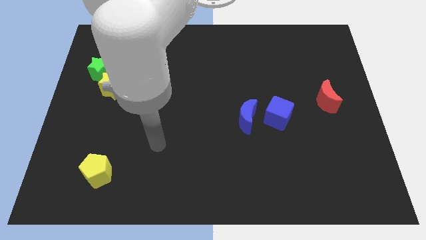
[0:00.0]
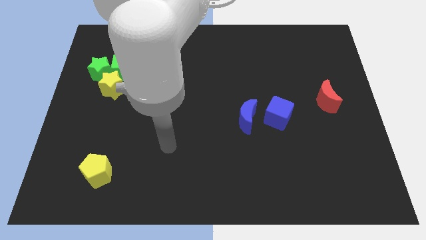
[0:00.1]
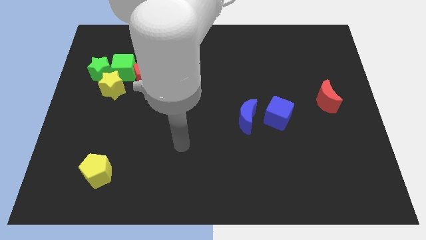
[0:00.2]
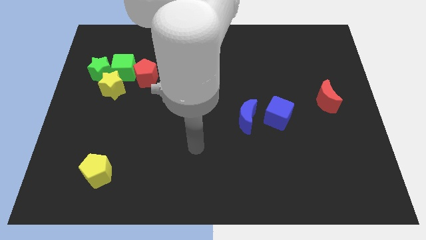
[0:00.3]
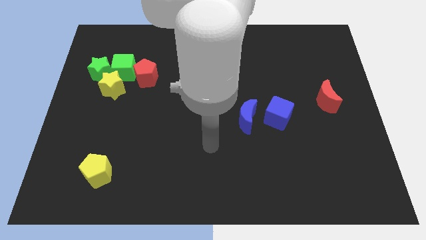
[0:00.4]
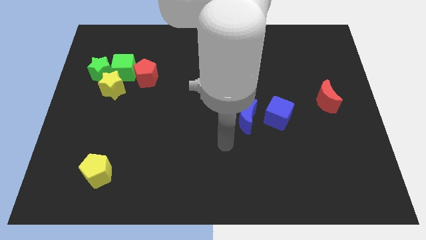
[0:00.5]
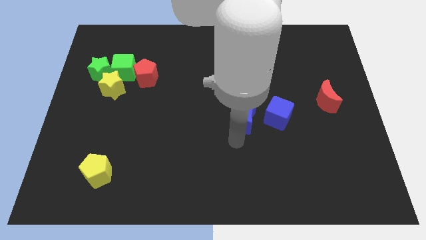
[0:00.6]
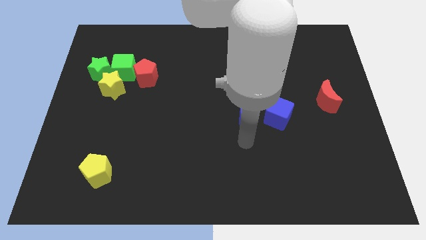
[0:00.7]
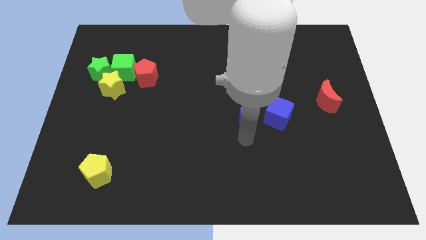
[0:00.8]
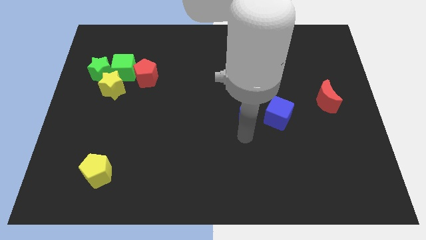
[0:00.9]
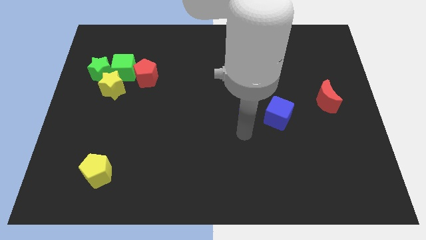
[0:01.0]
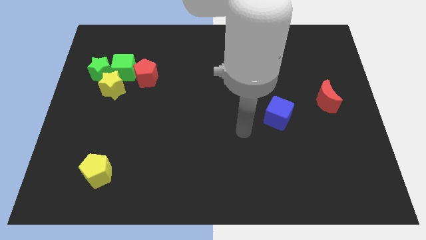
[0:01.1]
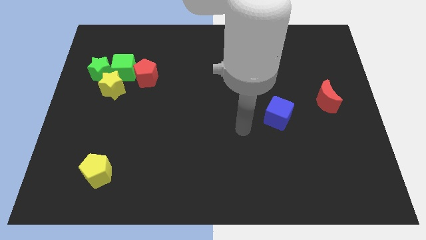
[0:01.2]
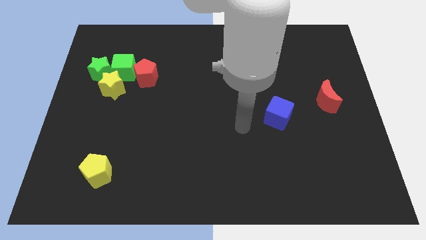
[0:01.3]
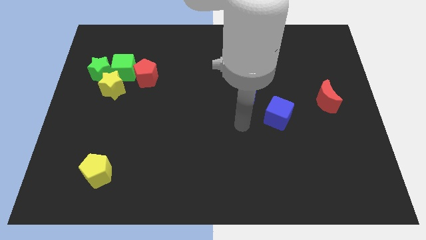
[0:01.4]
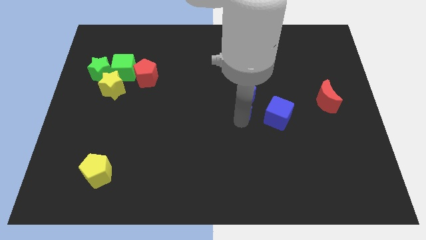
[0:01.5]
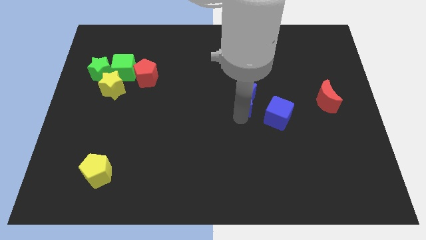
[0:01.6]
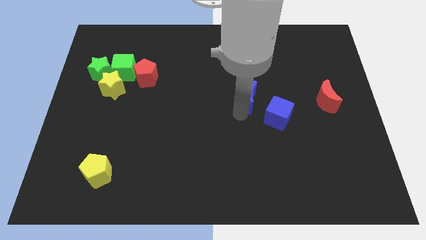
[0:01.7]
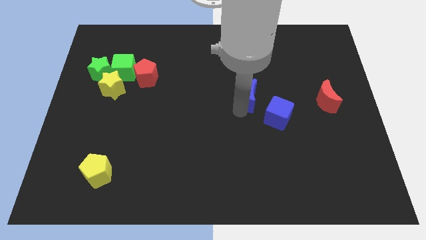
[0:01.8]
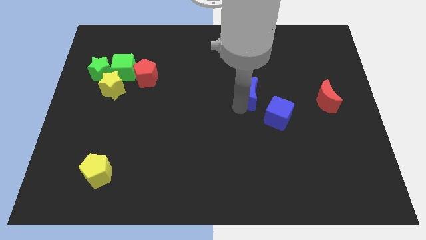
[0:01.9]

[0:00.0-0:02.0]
slightly push the blue moon upwards

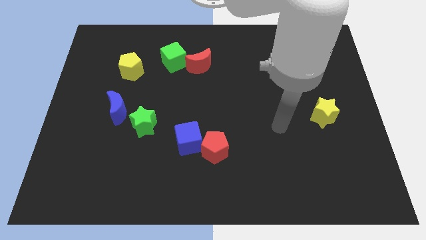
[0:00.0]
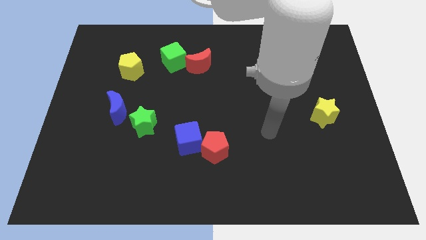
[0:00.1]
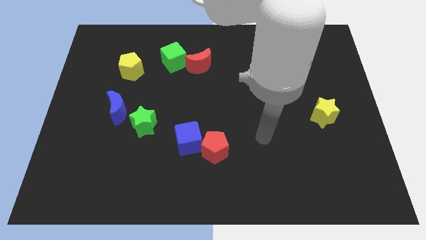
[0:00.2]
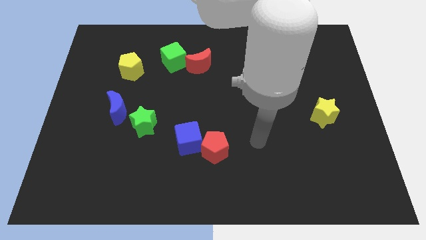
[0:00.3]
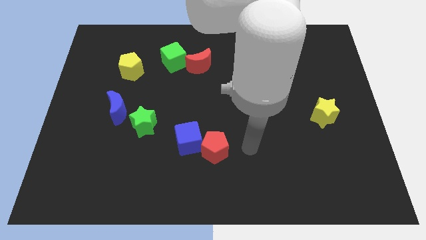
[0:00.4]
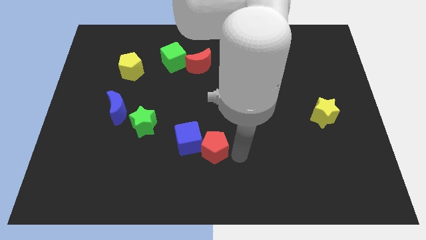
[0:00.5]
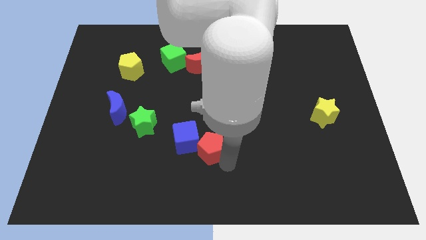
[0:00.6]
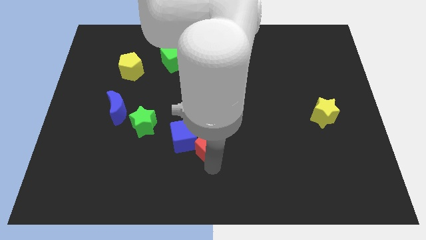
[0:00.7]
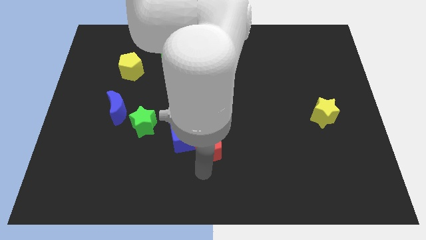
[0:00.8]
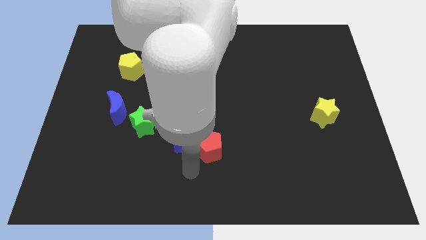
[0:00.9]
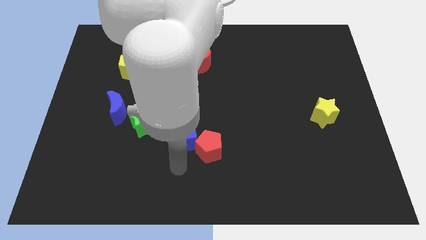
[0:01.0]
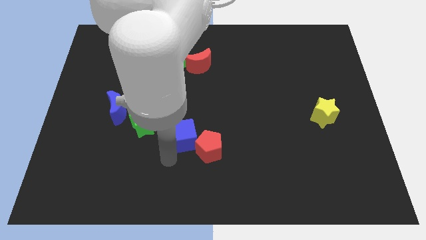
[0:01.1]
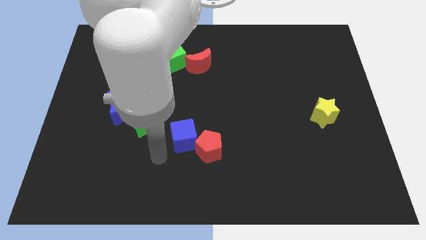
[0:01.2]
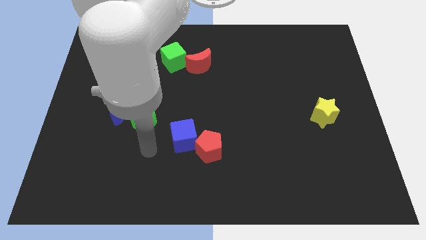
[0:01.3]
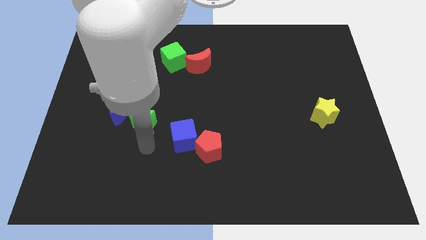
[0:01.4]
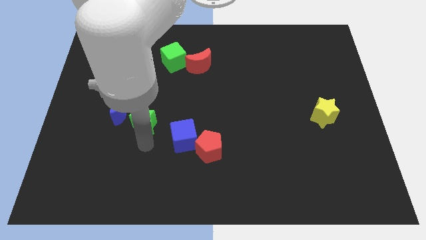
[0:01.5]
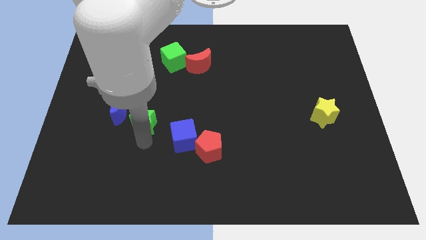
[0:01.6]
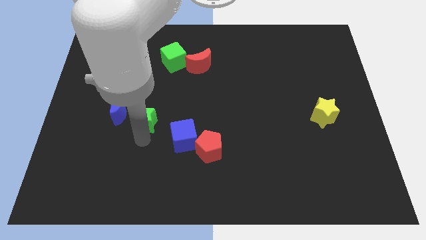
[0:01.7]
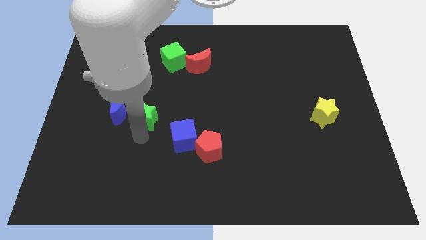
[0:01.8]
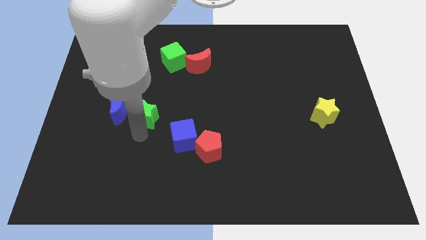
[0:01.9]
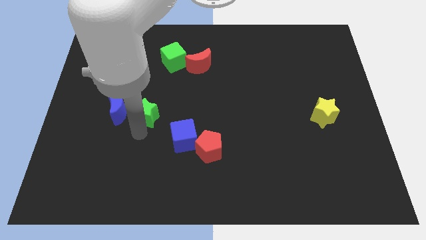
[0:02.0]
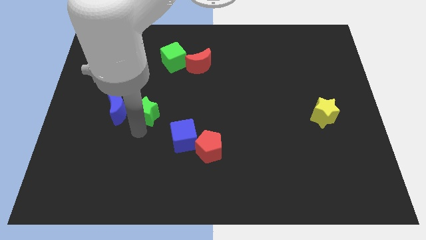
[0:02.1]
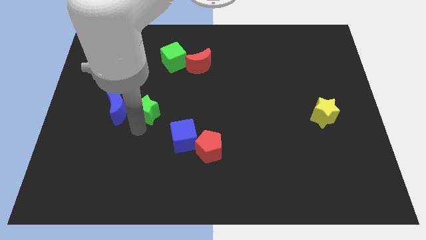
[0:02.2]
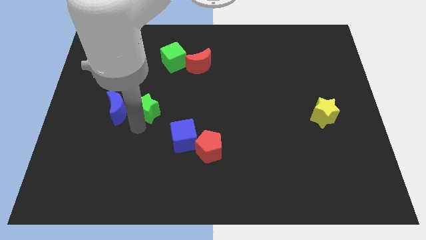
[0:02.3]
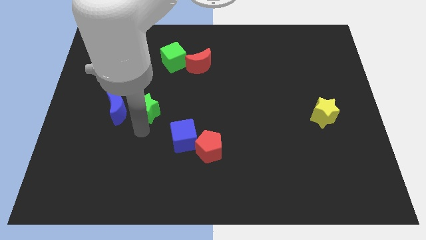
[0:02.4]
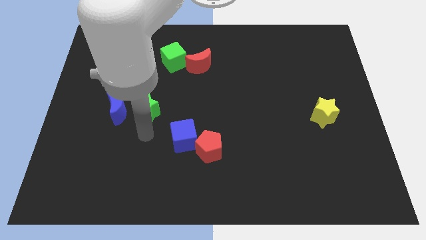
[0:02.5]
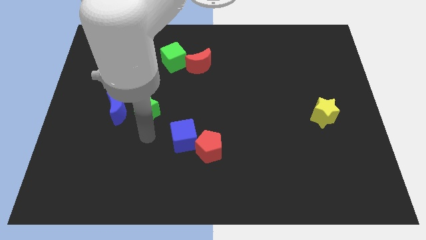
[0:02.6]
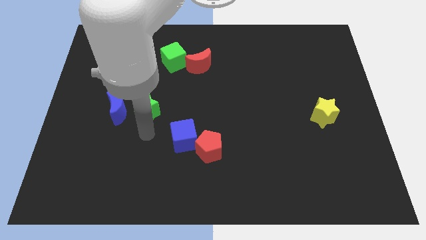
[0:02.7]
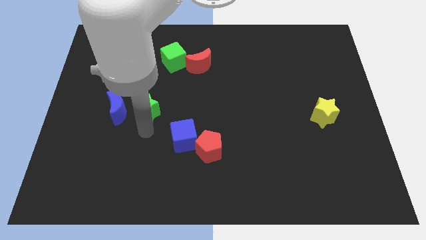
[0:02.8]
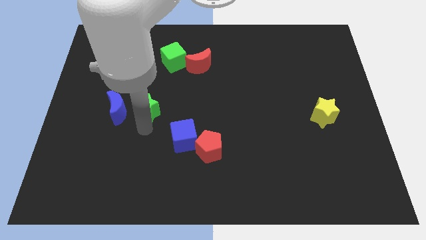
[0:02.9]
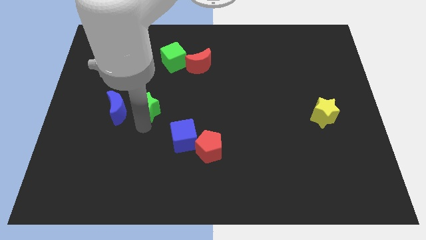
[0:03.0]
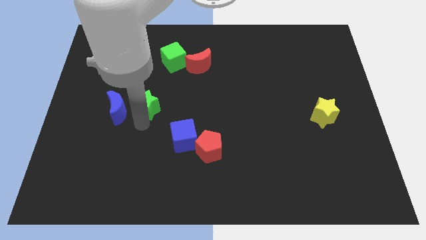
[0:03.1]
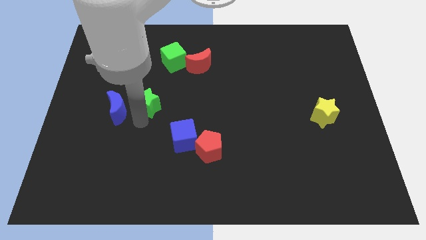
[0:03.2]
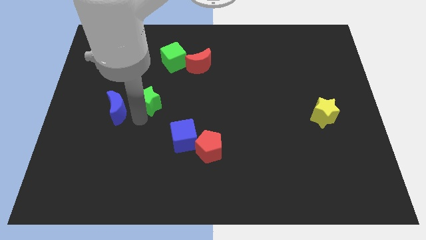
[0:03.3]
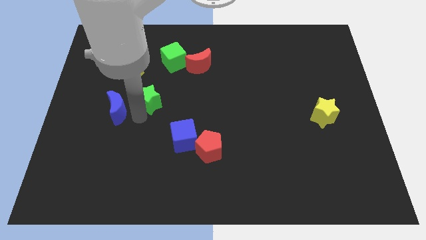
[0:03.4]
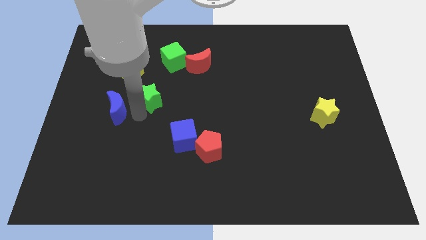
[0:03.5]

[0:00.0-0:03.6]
push the green star a little bit upwards

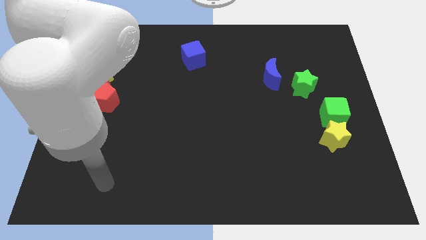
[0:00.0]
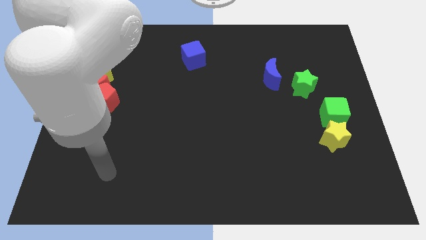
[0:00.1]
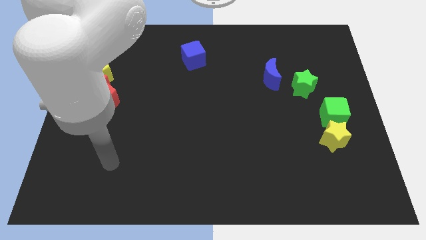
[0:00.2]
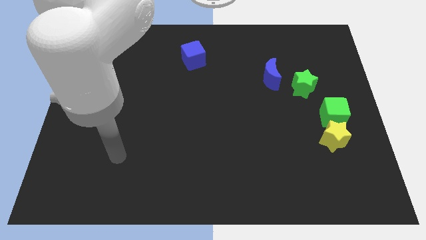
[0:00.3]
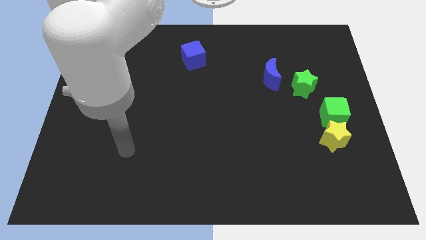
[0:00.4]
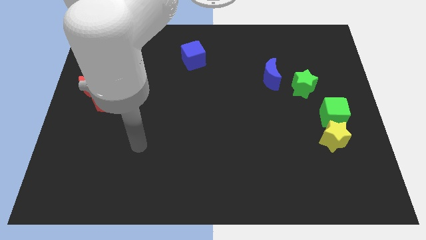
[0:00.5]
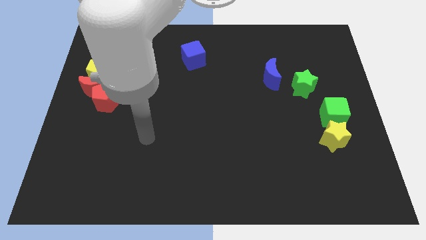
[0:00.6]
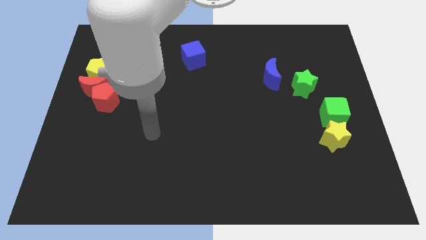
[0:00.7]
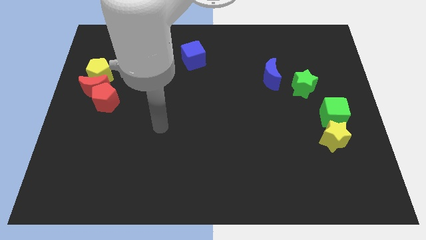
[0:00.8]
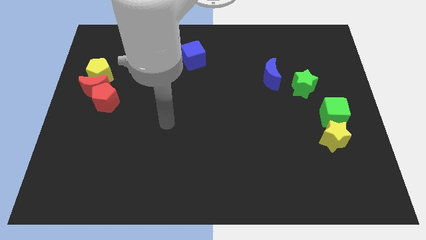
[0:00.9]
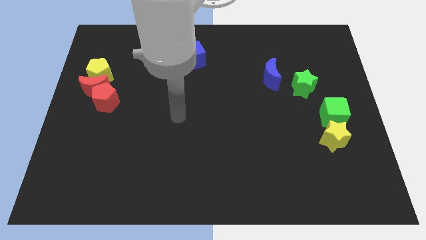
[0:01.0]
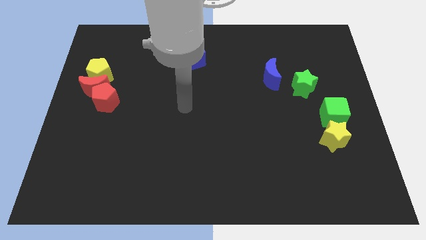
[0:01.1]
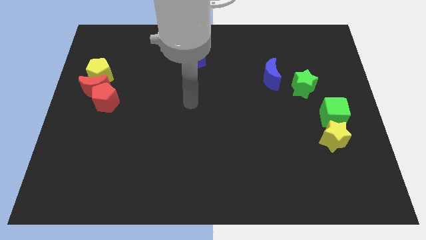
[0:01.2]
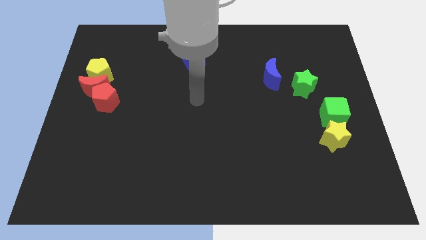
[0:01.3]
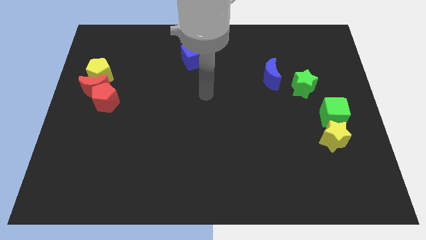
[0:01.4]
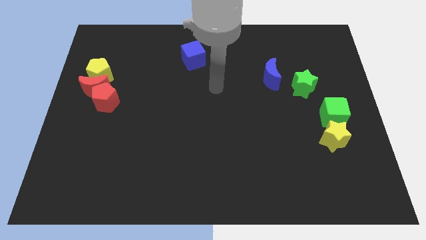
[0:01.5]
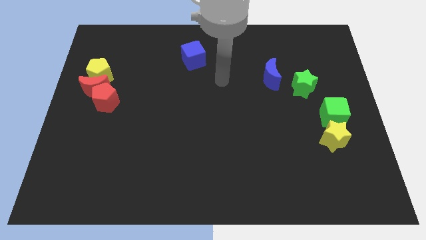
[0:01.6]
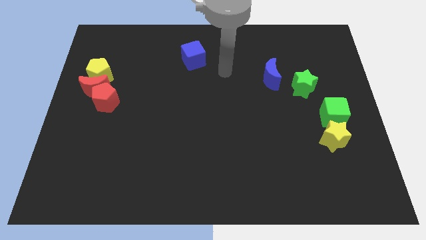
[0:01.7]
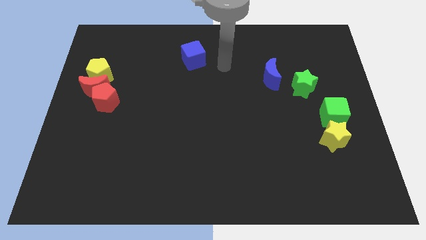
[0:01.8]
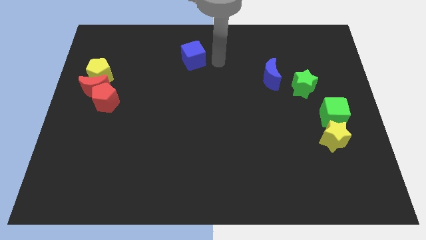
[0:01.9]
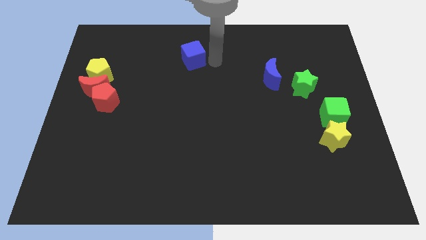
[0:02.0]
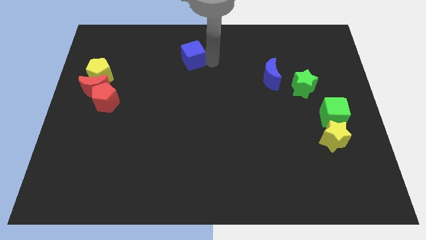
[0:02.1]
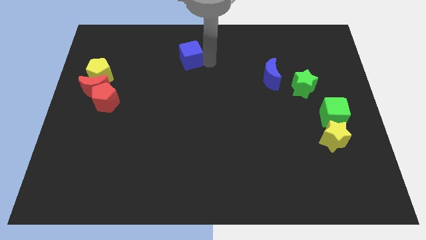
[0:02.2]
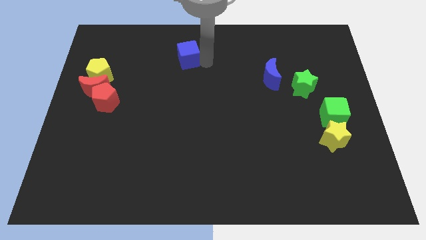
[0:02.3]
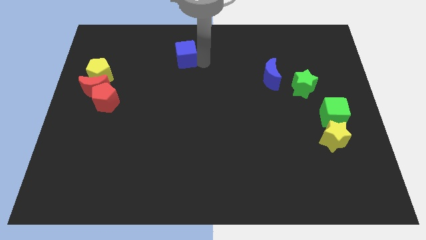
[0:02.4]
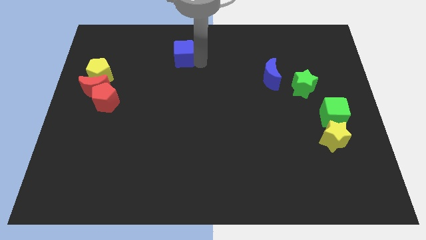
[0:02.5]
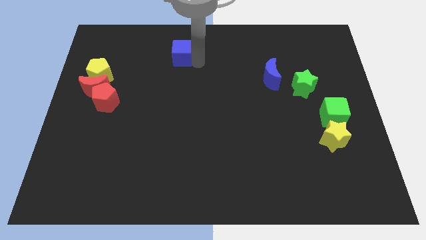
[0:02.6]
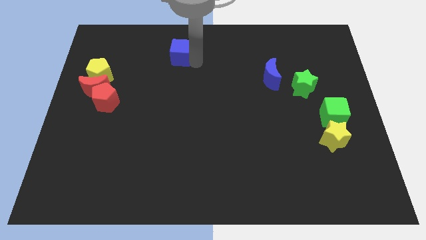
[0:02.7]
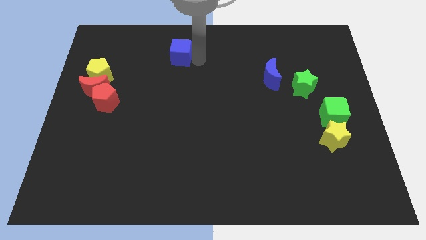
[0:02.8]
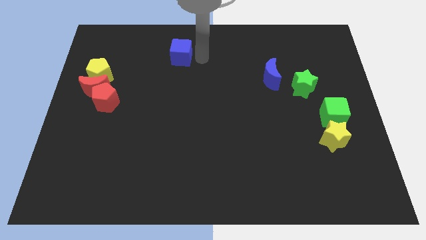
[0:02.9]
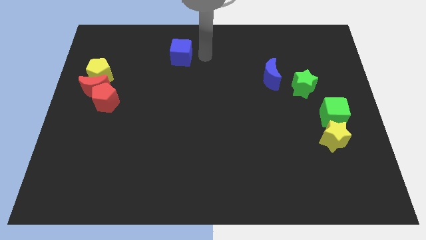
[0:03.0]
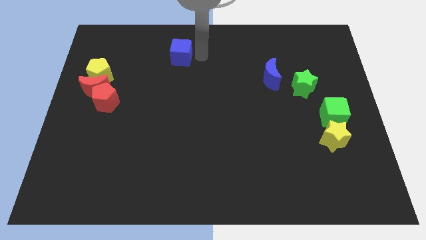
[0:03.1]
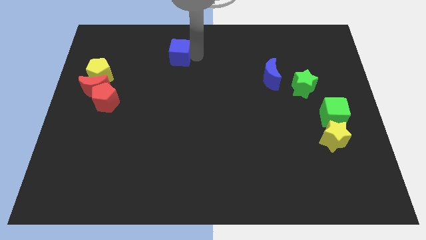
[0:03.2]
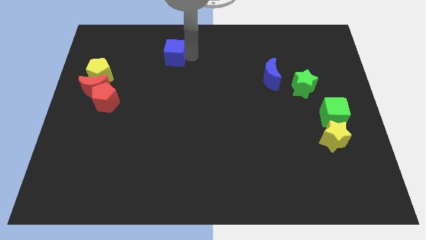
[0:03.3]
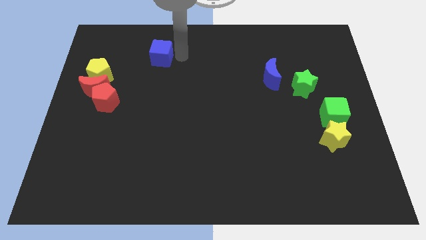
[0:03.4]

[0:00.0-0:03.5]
push the blue cube slightly to the left
